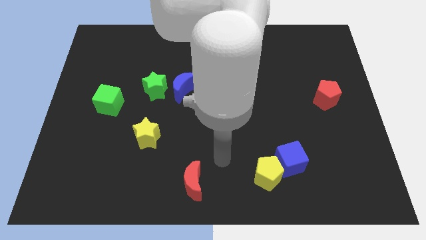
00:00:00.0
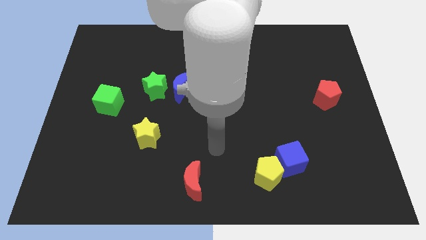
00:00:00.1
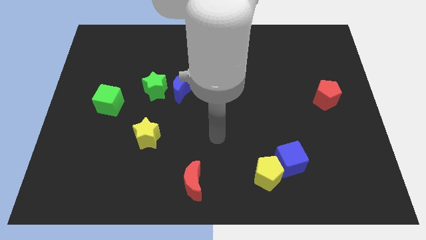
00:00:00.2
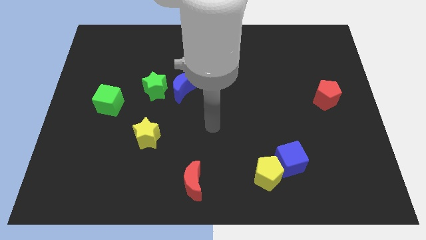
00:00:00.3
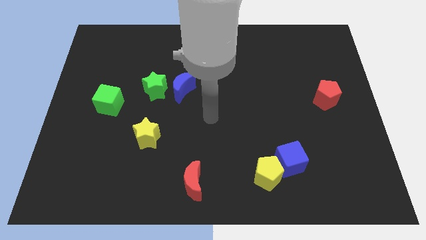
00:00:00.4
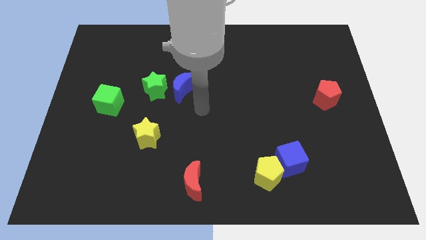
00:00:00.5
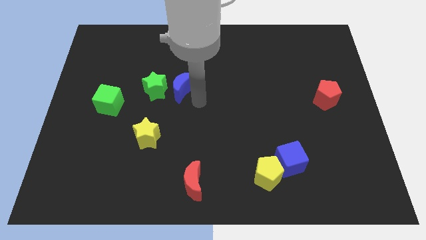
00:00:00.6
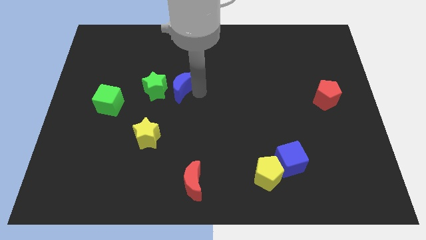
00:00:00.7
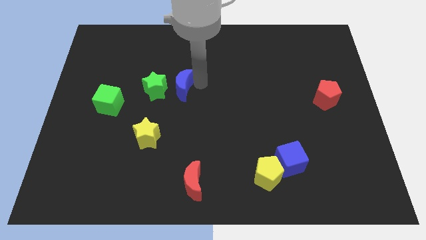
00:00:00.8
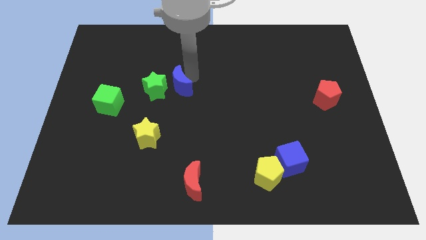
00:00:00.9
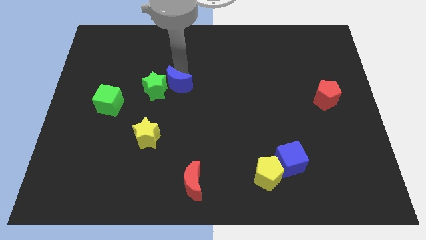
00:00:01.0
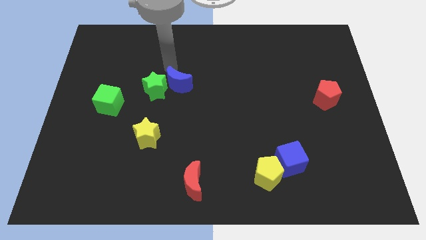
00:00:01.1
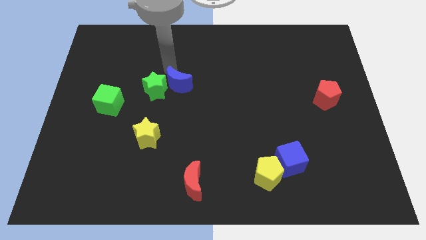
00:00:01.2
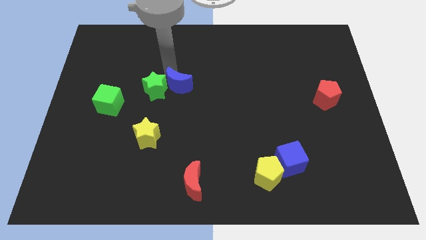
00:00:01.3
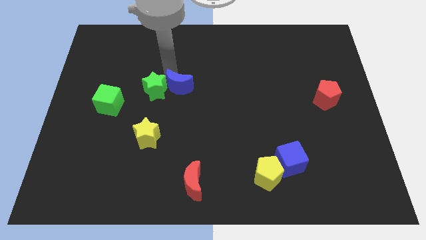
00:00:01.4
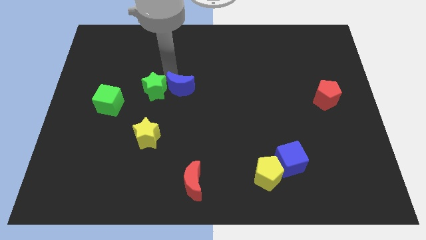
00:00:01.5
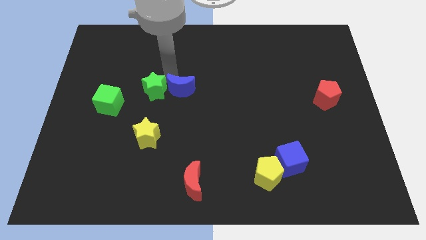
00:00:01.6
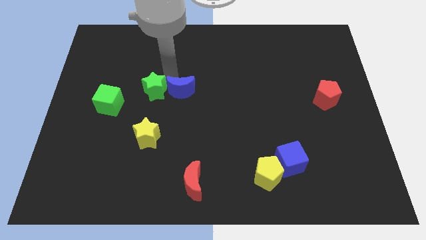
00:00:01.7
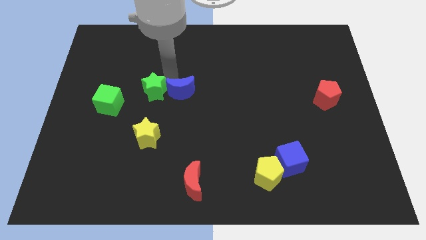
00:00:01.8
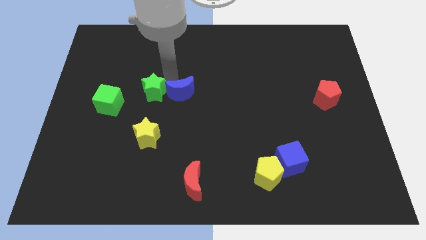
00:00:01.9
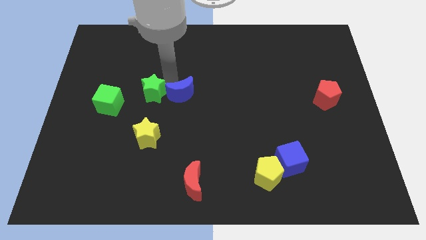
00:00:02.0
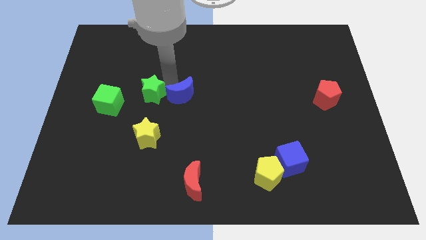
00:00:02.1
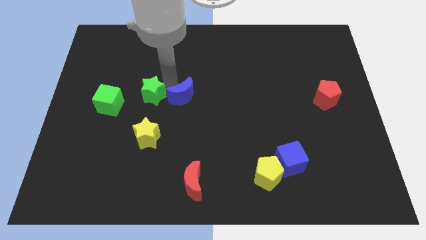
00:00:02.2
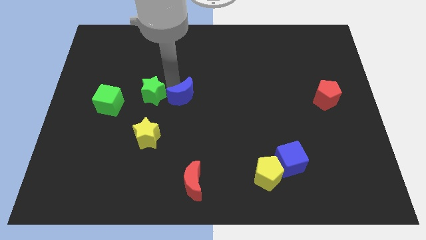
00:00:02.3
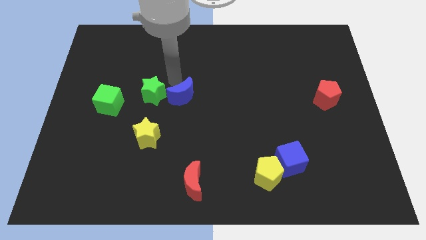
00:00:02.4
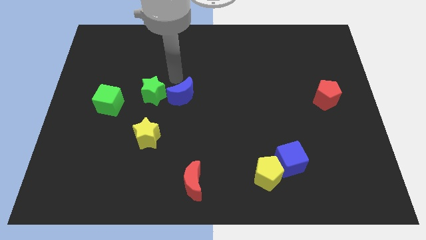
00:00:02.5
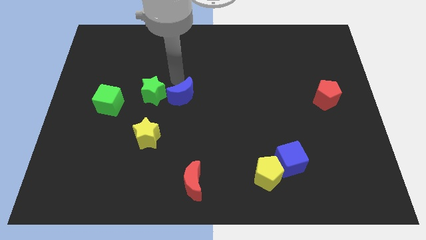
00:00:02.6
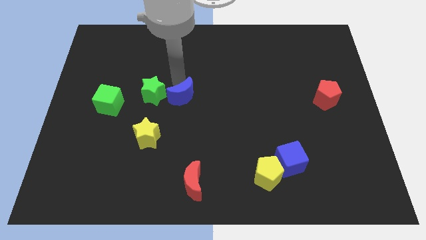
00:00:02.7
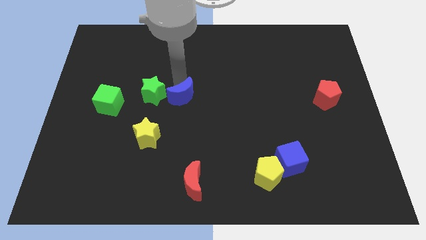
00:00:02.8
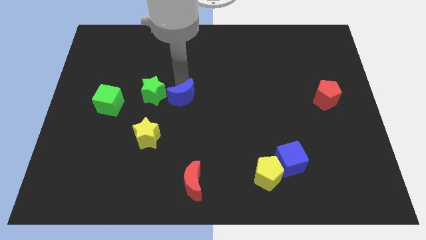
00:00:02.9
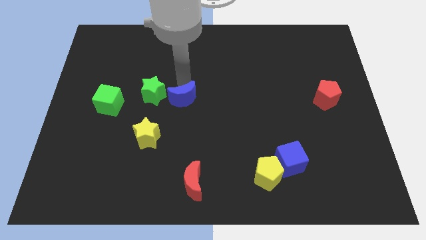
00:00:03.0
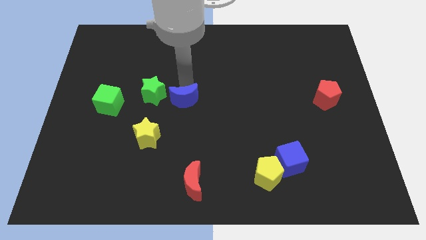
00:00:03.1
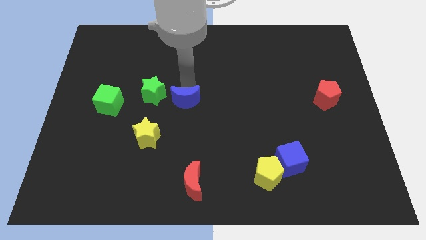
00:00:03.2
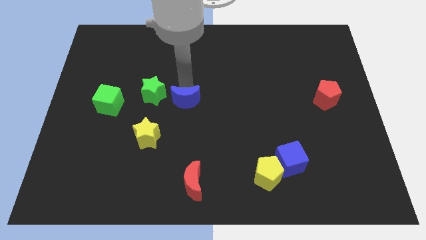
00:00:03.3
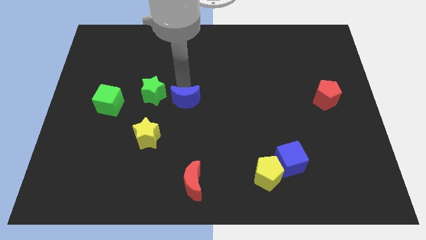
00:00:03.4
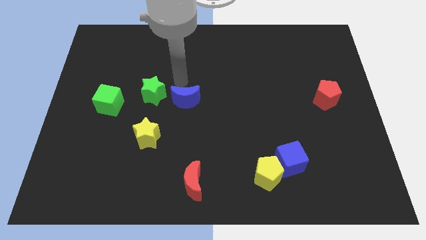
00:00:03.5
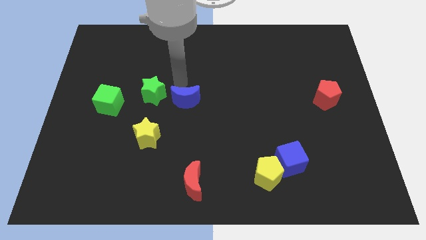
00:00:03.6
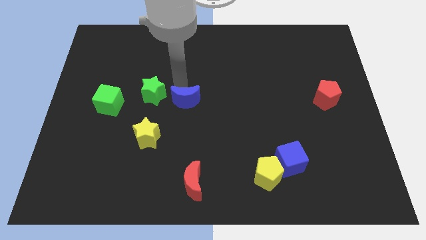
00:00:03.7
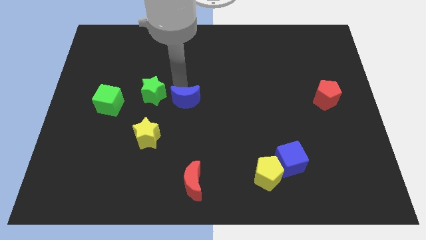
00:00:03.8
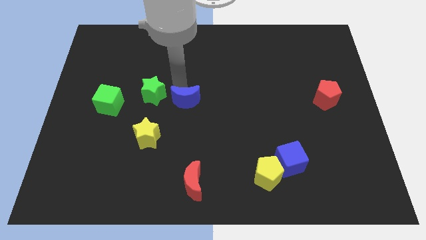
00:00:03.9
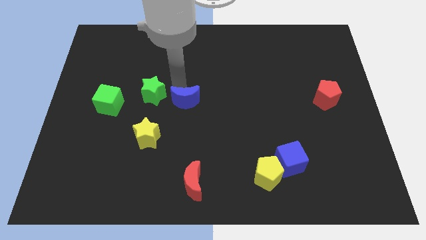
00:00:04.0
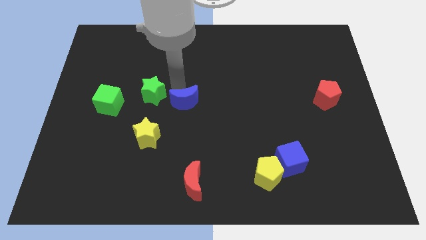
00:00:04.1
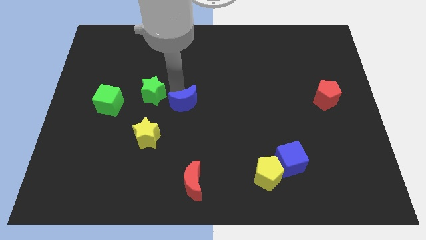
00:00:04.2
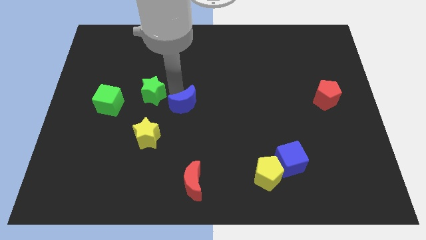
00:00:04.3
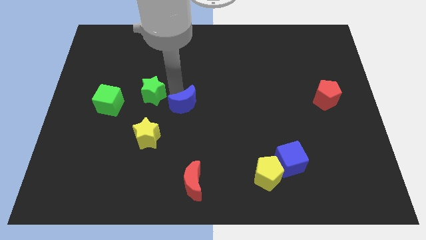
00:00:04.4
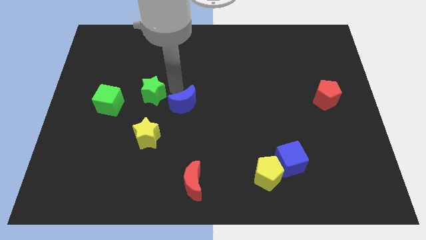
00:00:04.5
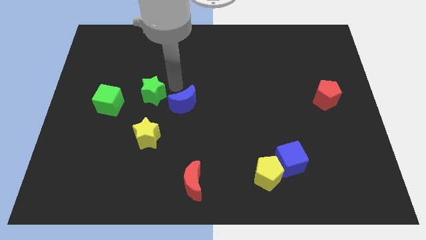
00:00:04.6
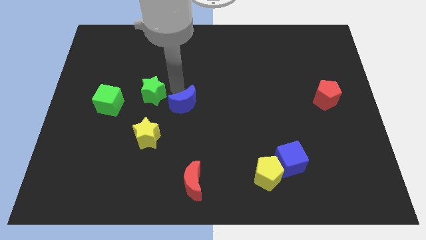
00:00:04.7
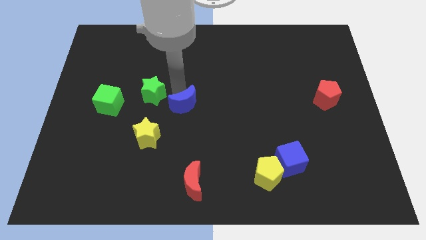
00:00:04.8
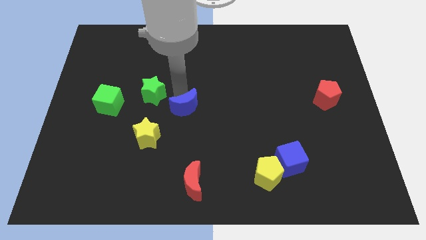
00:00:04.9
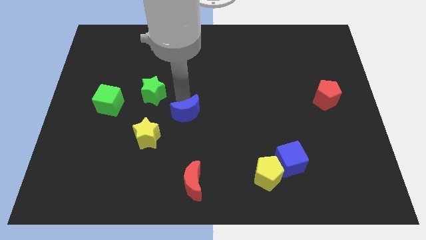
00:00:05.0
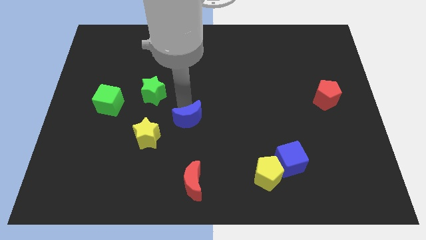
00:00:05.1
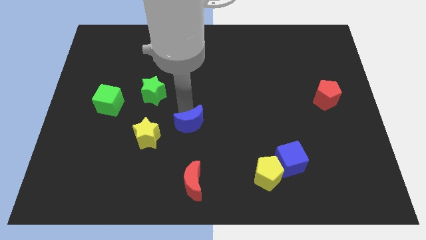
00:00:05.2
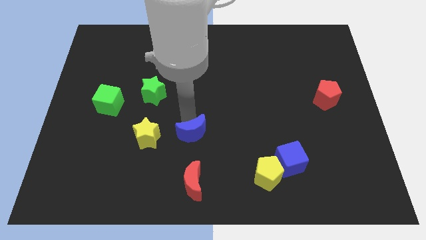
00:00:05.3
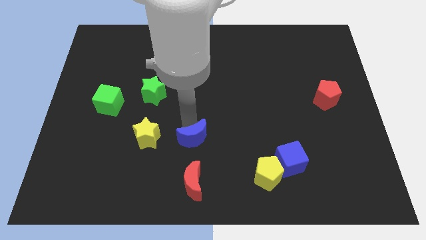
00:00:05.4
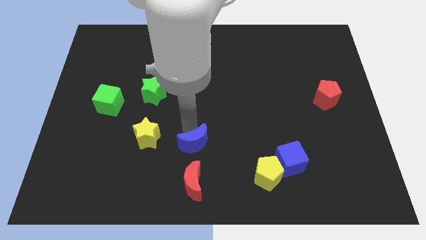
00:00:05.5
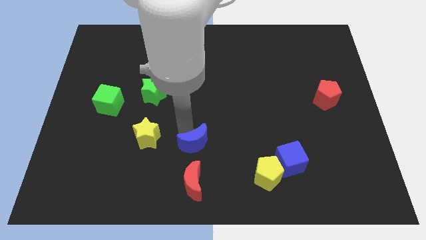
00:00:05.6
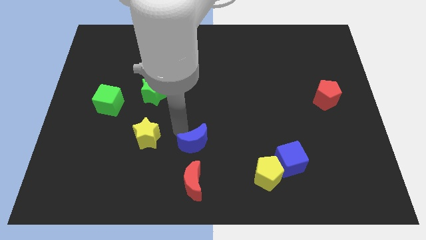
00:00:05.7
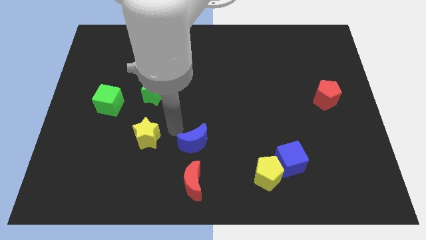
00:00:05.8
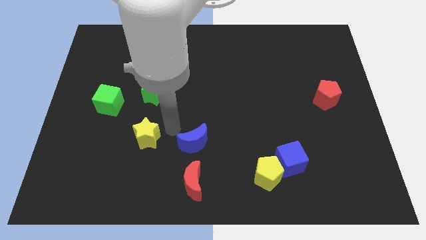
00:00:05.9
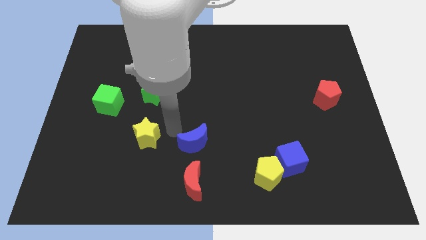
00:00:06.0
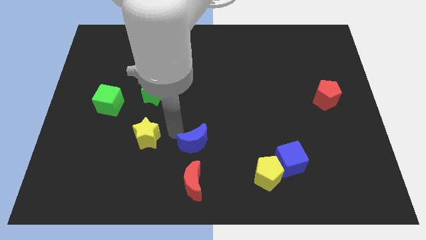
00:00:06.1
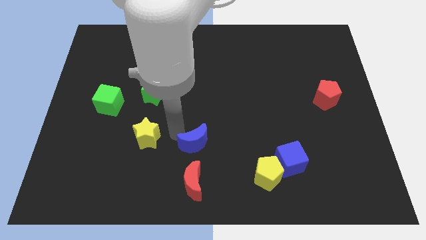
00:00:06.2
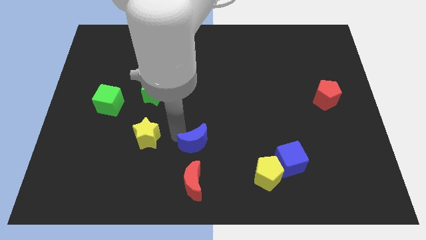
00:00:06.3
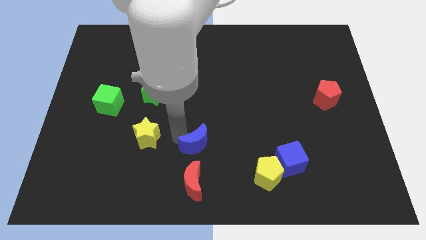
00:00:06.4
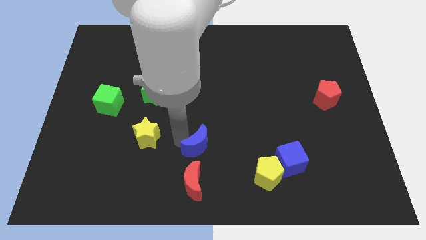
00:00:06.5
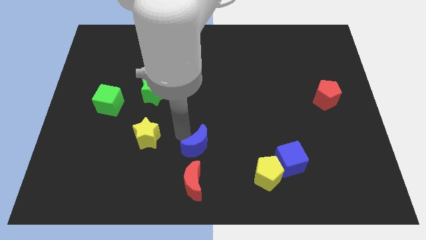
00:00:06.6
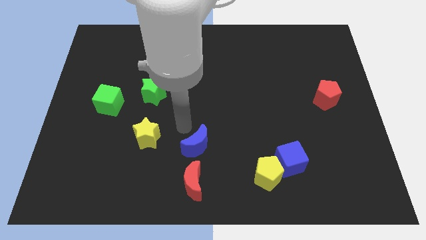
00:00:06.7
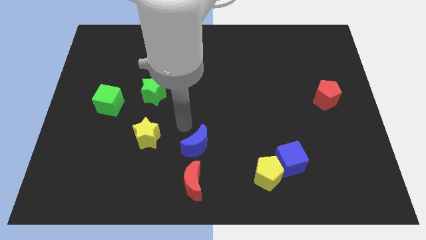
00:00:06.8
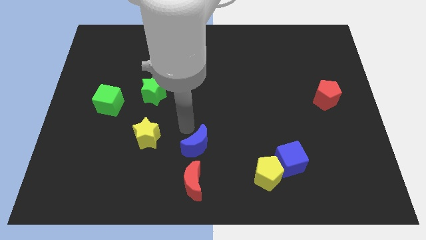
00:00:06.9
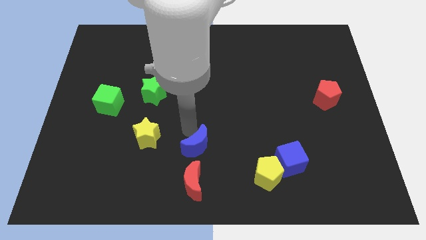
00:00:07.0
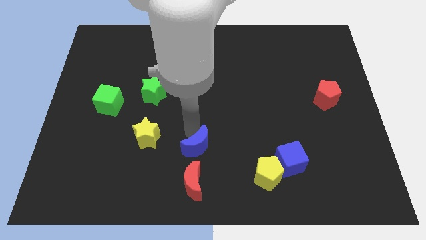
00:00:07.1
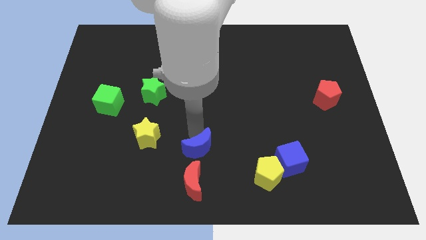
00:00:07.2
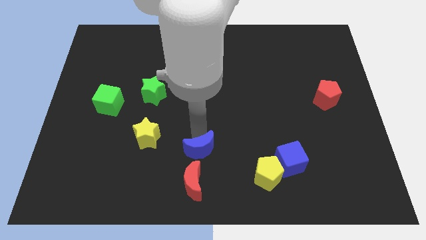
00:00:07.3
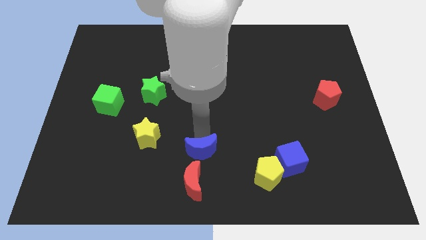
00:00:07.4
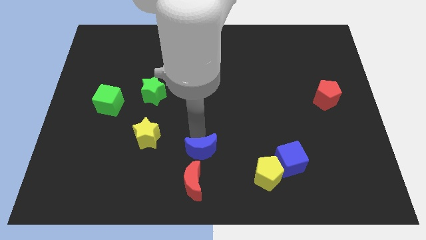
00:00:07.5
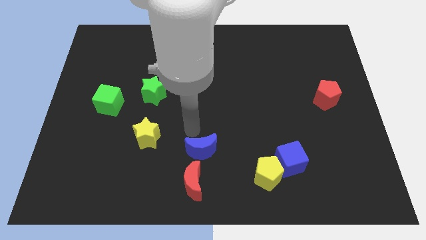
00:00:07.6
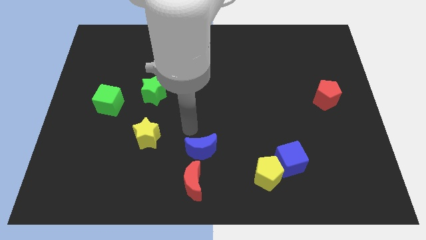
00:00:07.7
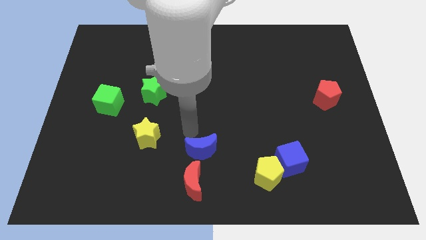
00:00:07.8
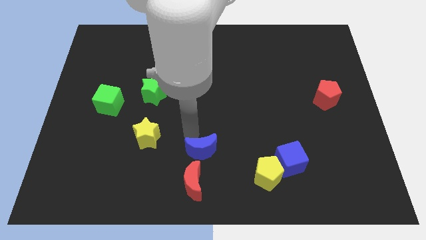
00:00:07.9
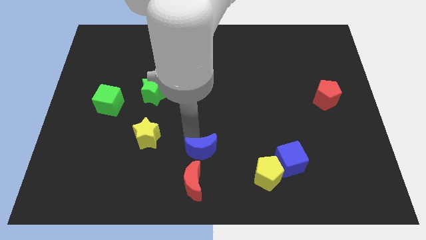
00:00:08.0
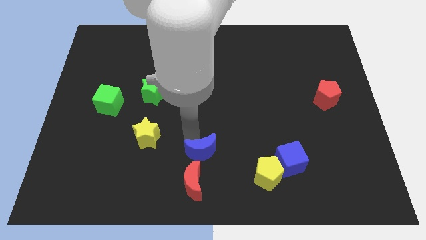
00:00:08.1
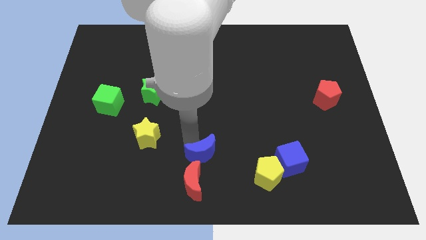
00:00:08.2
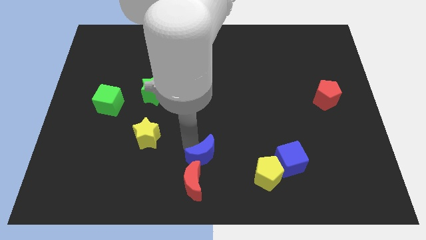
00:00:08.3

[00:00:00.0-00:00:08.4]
move the blue moon left of the yellow pentagon
